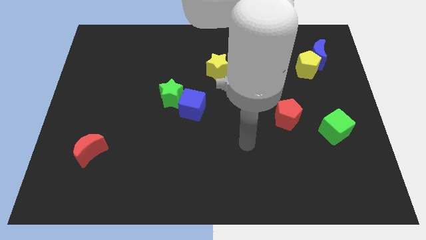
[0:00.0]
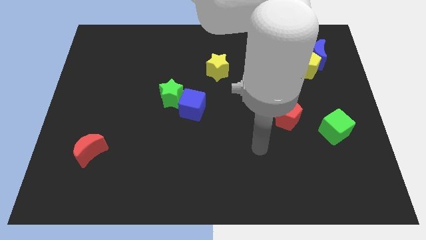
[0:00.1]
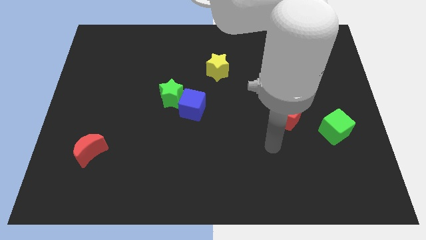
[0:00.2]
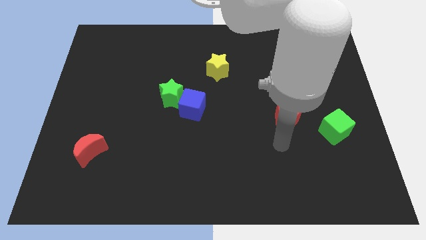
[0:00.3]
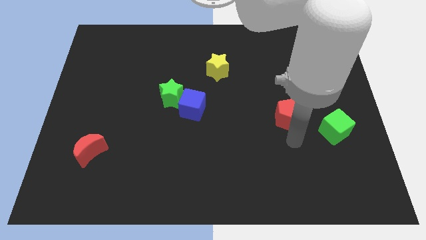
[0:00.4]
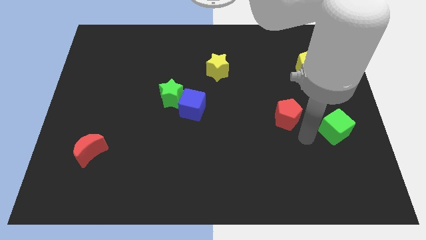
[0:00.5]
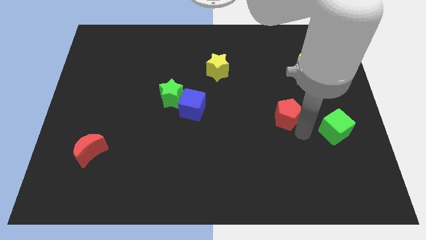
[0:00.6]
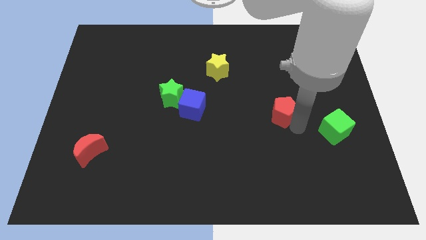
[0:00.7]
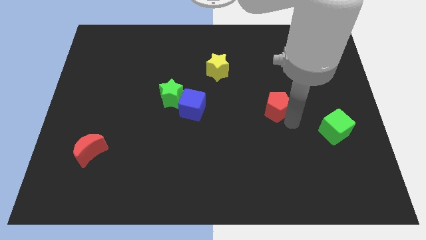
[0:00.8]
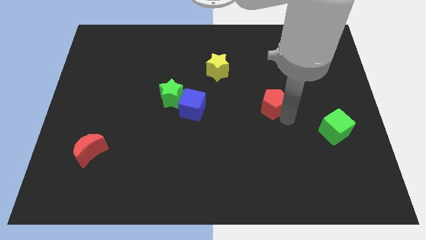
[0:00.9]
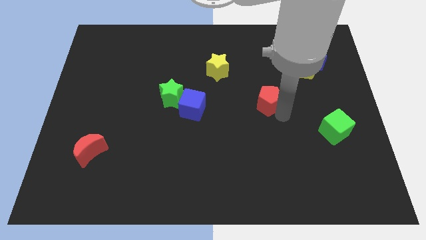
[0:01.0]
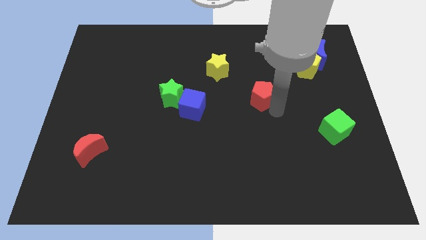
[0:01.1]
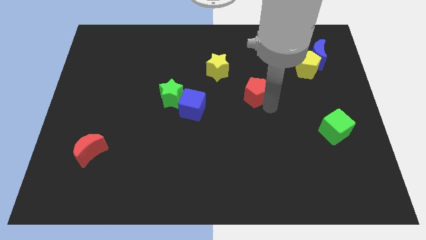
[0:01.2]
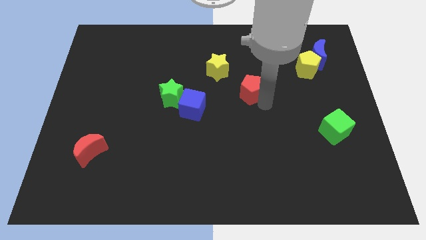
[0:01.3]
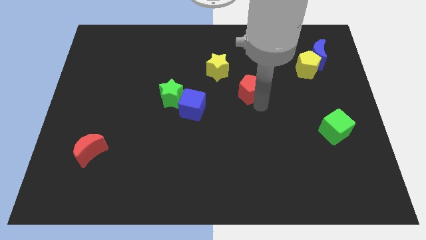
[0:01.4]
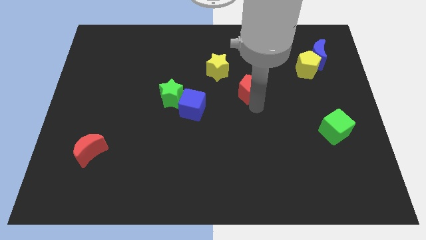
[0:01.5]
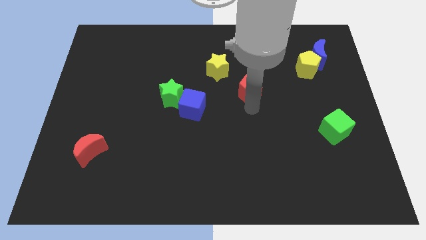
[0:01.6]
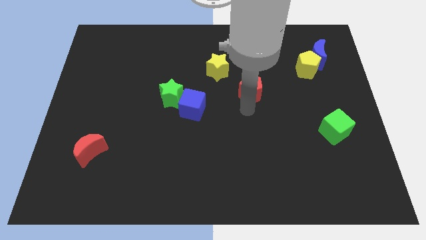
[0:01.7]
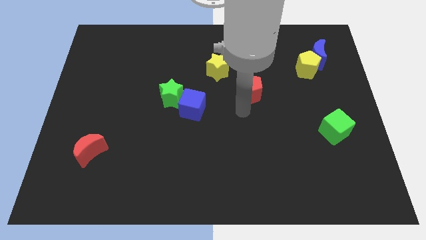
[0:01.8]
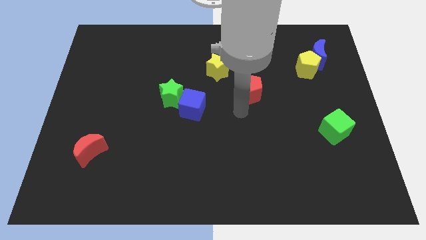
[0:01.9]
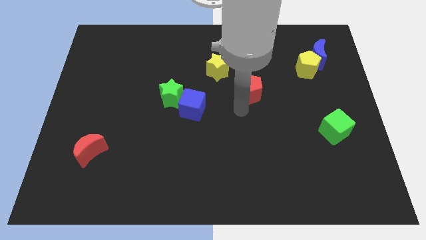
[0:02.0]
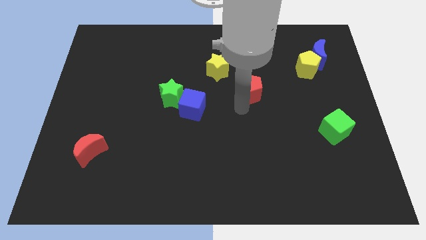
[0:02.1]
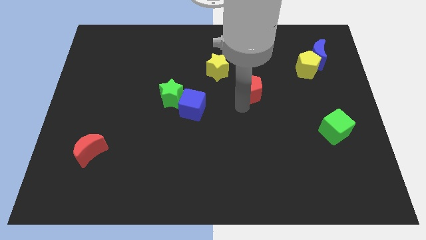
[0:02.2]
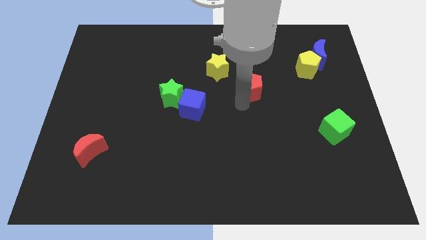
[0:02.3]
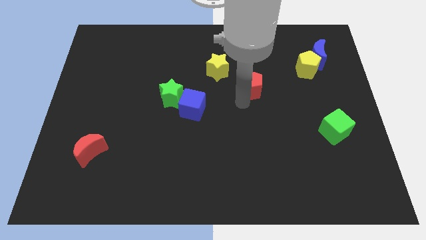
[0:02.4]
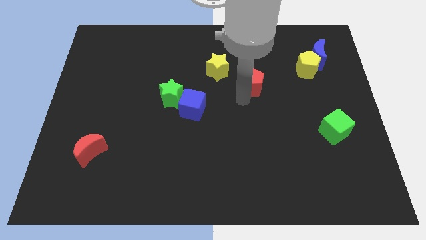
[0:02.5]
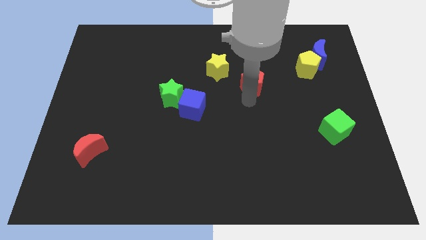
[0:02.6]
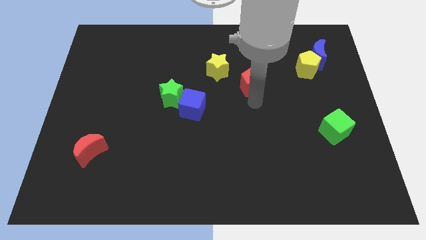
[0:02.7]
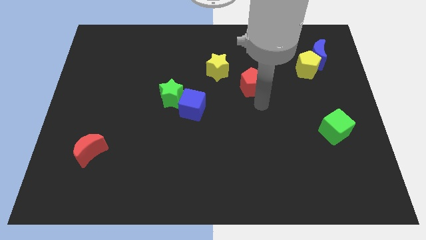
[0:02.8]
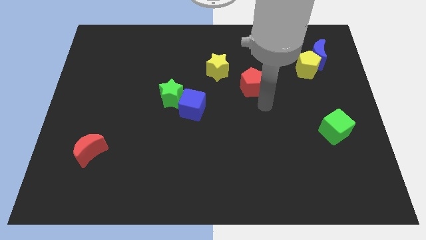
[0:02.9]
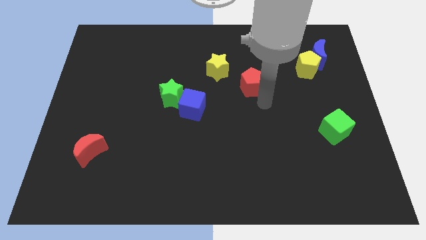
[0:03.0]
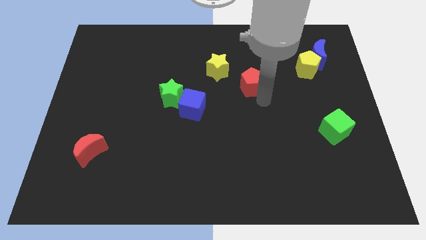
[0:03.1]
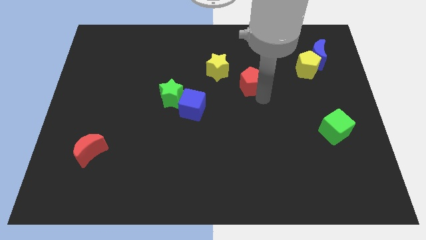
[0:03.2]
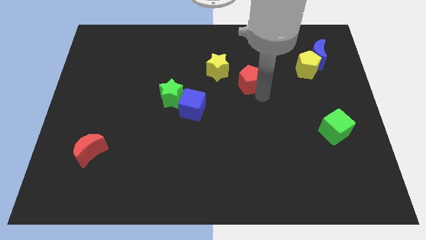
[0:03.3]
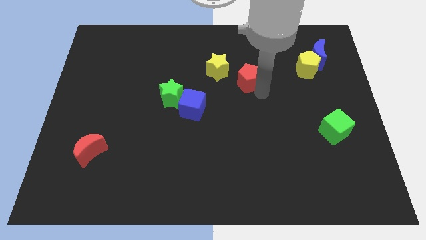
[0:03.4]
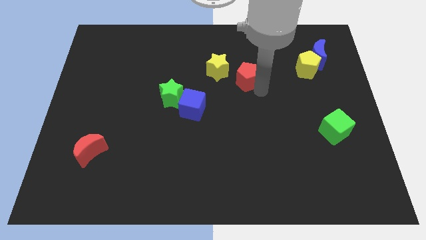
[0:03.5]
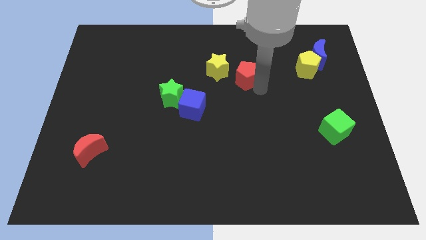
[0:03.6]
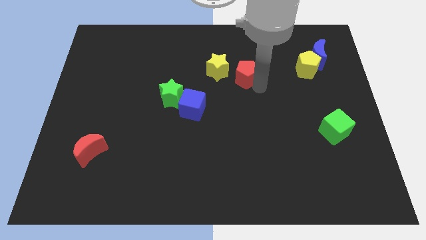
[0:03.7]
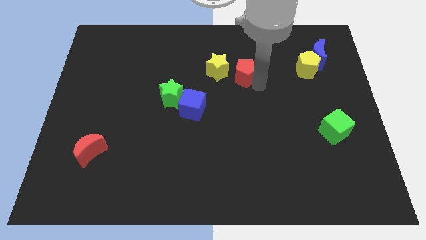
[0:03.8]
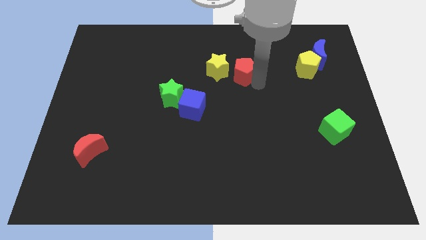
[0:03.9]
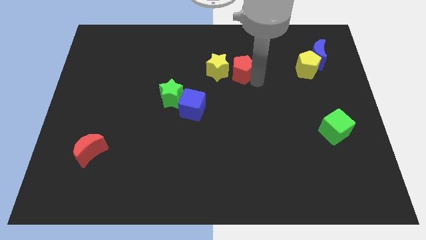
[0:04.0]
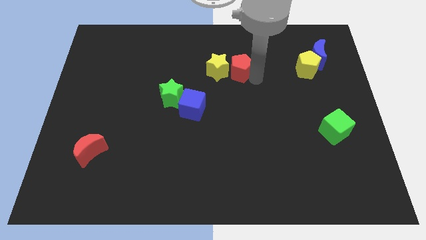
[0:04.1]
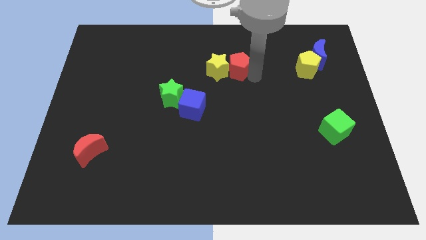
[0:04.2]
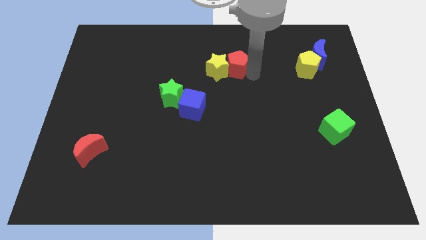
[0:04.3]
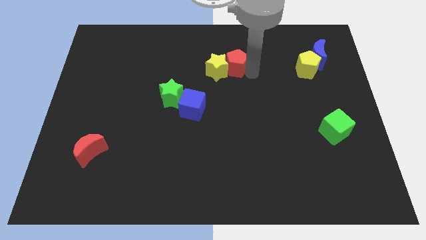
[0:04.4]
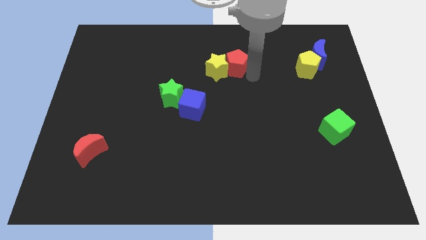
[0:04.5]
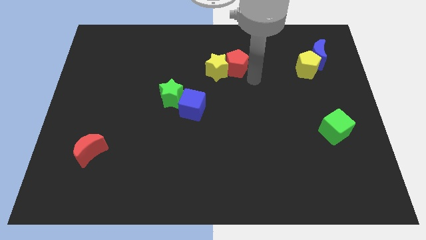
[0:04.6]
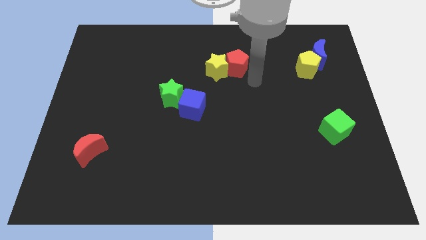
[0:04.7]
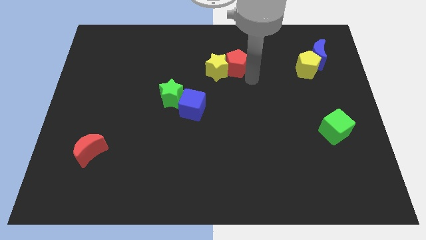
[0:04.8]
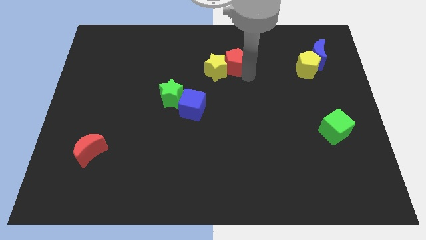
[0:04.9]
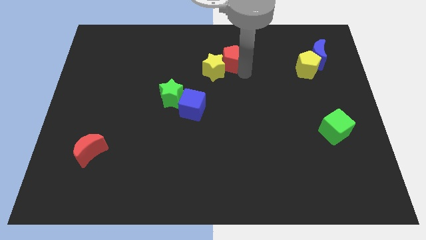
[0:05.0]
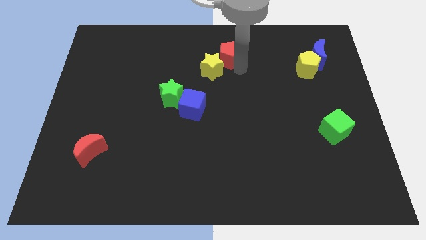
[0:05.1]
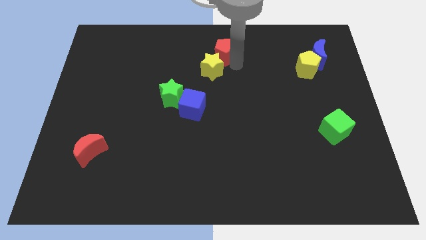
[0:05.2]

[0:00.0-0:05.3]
move the red pentagon to the towards your base

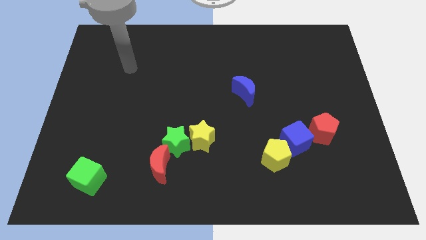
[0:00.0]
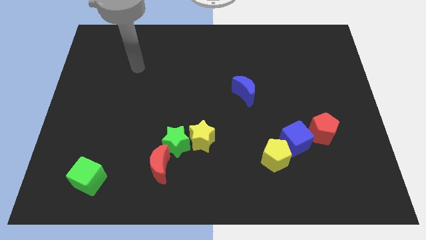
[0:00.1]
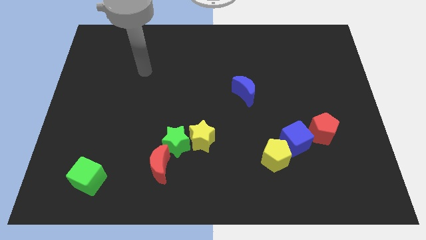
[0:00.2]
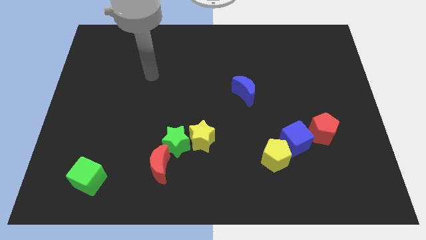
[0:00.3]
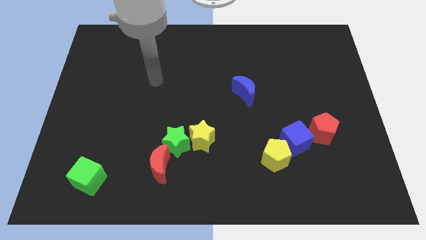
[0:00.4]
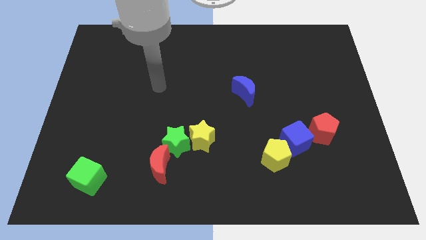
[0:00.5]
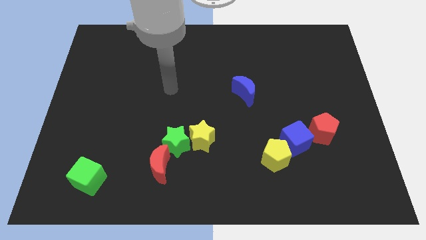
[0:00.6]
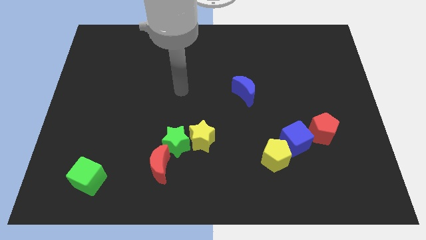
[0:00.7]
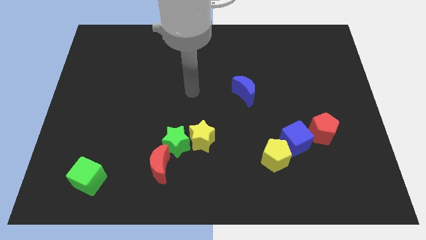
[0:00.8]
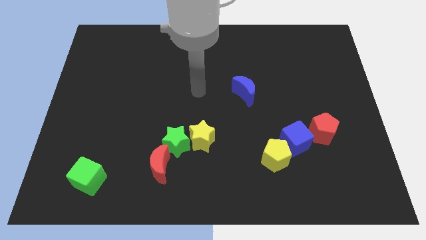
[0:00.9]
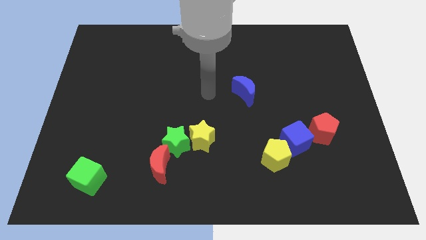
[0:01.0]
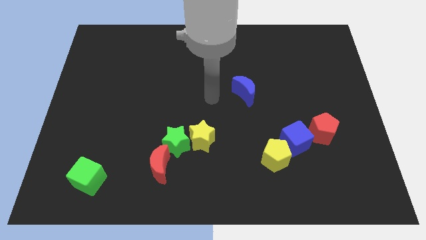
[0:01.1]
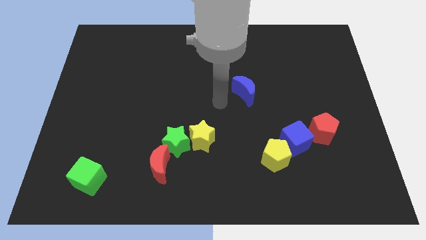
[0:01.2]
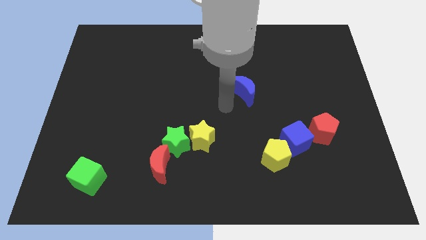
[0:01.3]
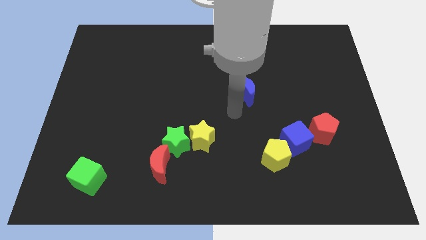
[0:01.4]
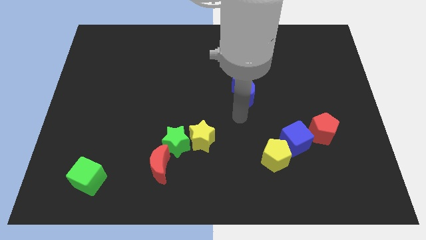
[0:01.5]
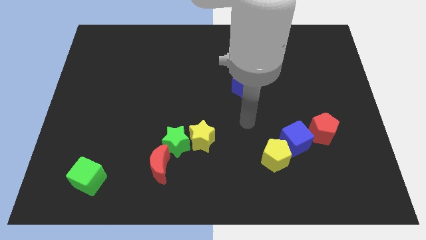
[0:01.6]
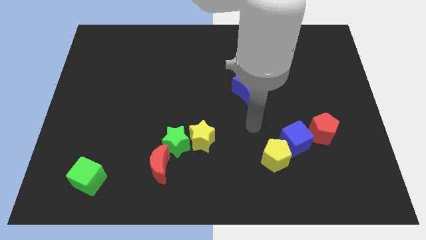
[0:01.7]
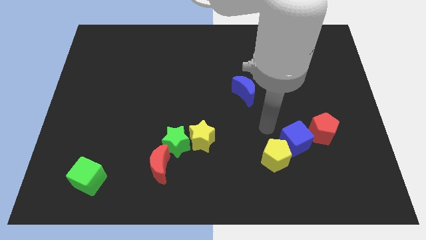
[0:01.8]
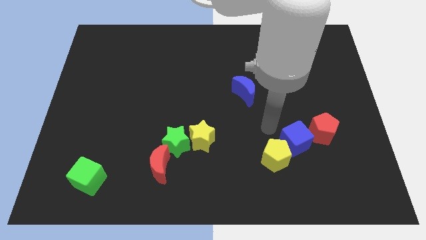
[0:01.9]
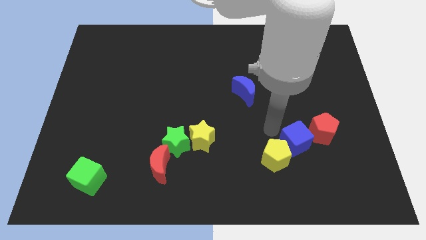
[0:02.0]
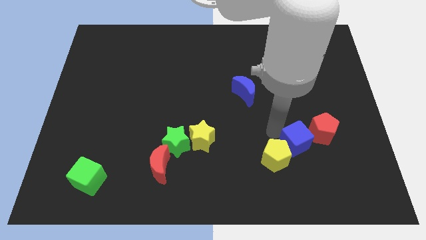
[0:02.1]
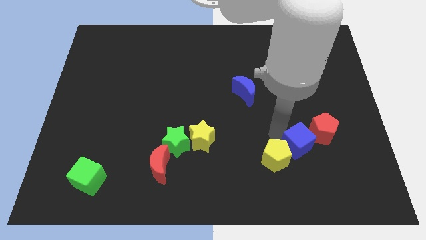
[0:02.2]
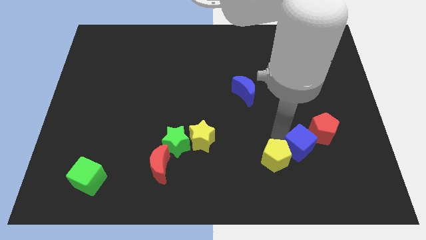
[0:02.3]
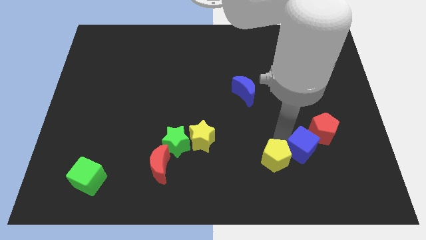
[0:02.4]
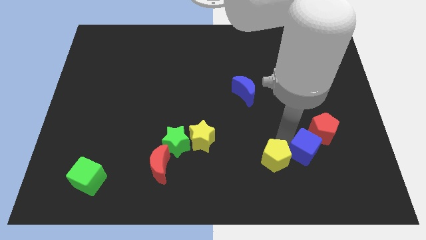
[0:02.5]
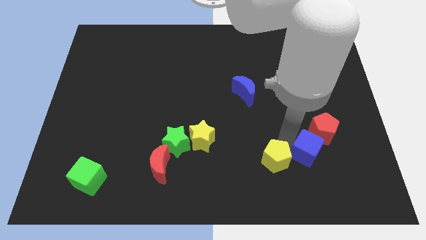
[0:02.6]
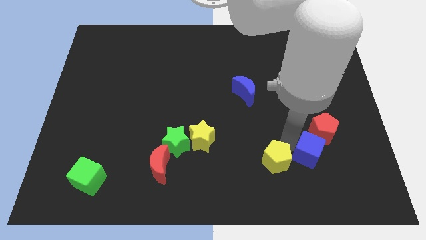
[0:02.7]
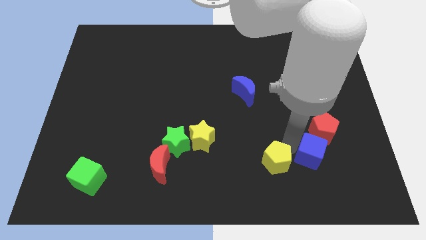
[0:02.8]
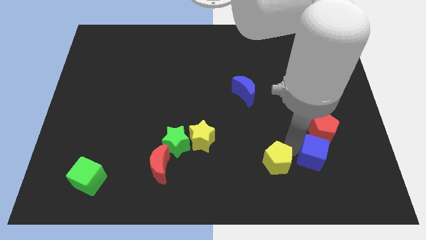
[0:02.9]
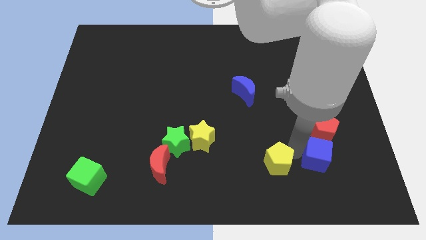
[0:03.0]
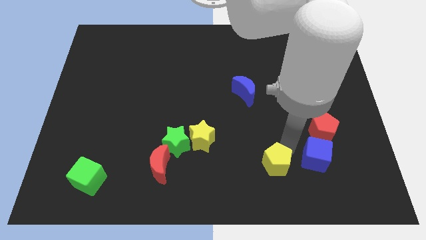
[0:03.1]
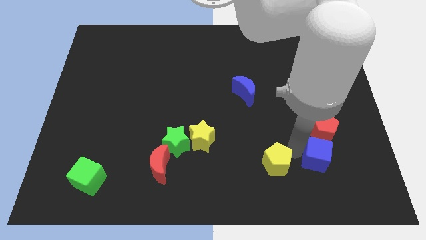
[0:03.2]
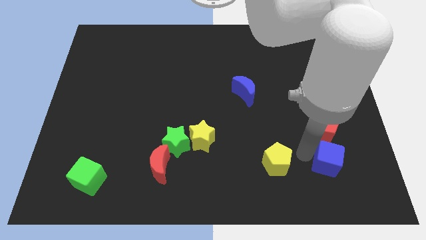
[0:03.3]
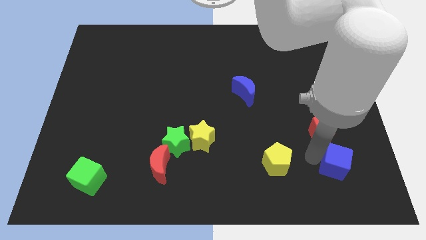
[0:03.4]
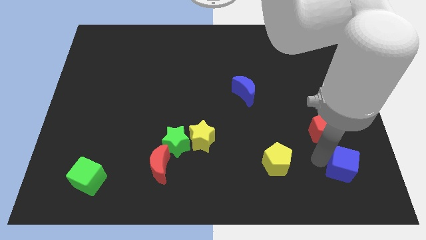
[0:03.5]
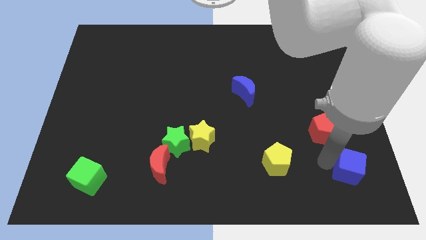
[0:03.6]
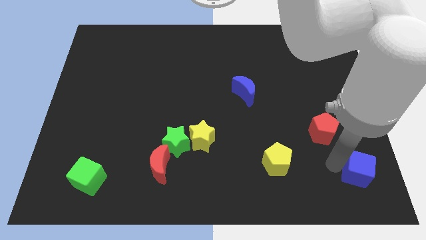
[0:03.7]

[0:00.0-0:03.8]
push the blue cube to the bottom right
